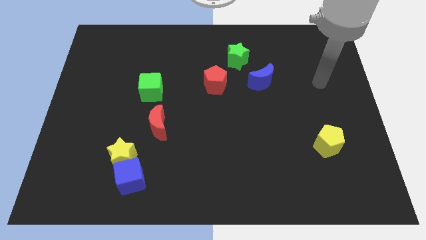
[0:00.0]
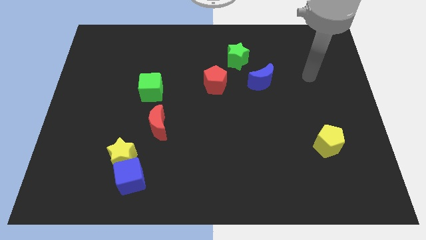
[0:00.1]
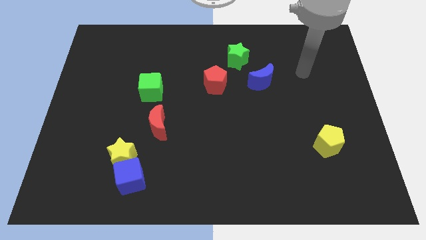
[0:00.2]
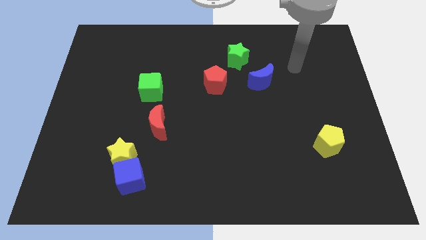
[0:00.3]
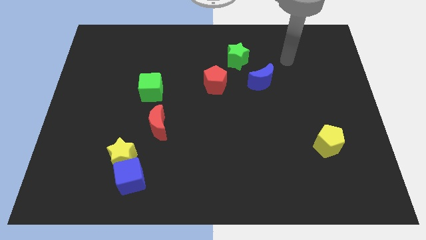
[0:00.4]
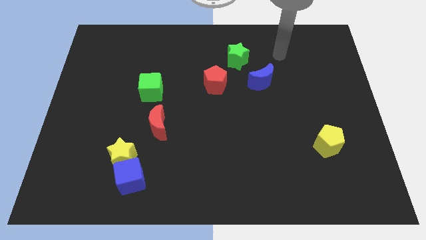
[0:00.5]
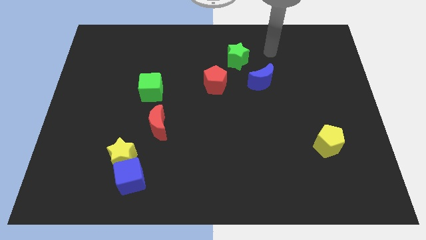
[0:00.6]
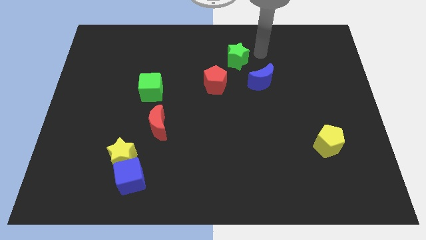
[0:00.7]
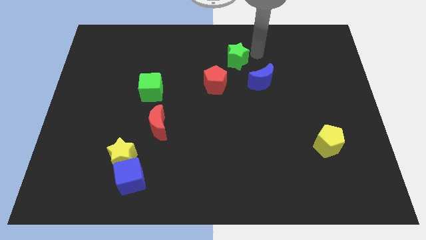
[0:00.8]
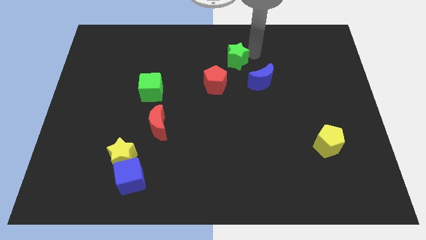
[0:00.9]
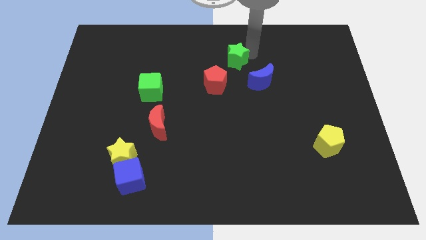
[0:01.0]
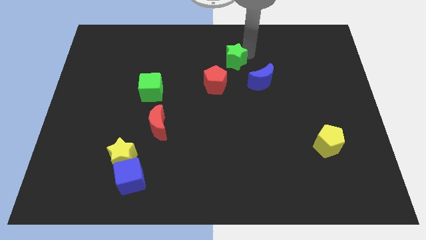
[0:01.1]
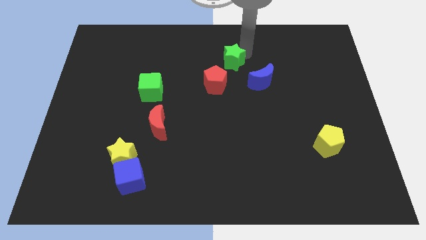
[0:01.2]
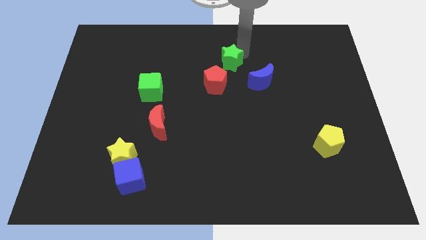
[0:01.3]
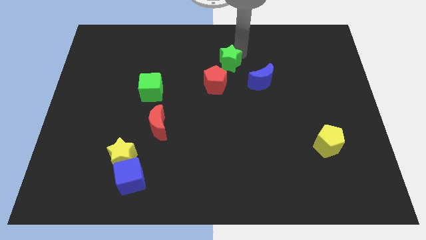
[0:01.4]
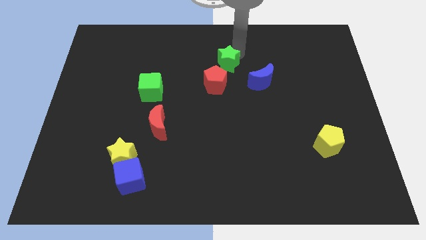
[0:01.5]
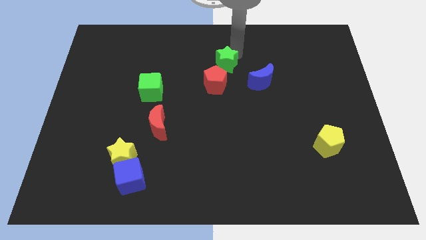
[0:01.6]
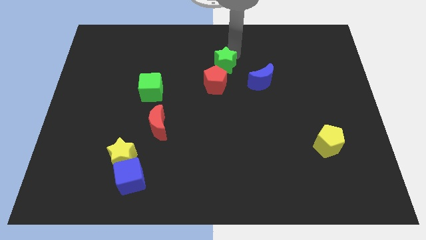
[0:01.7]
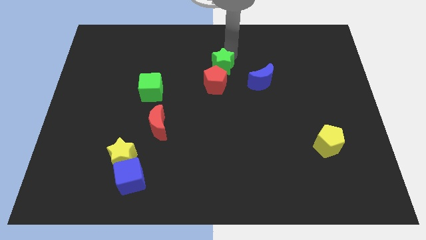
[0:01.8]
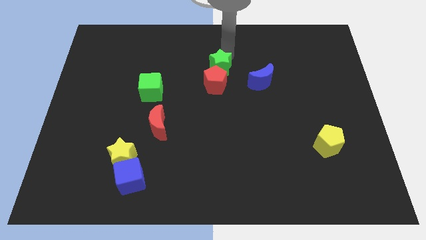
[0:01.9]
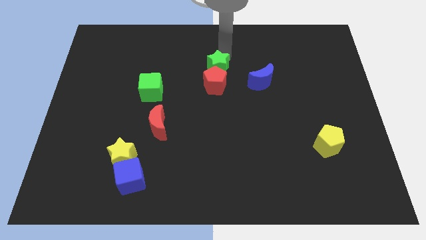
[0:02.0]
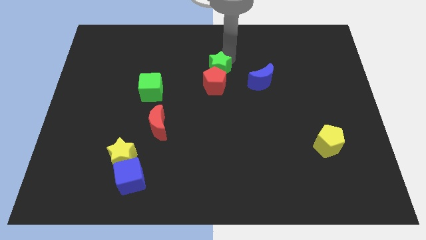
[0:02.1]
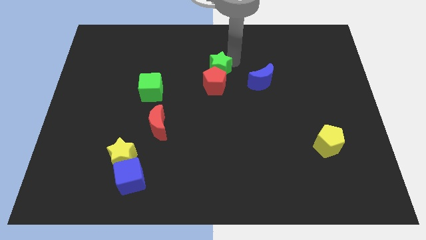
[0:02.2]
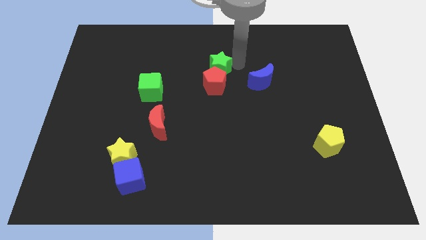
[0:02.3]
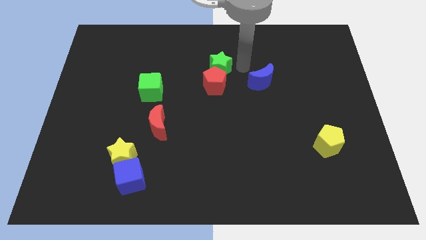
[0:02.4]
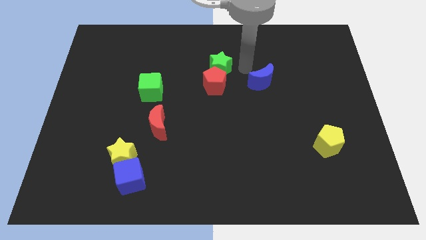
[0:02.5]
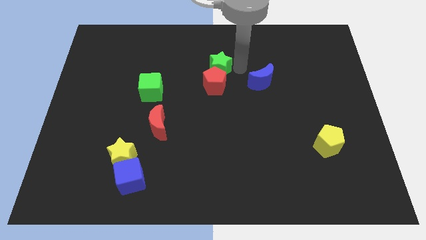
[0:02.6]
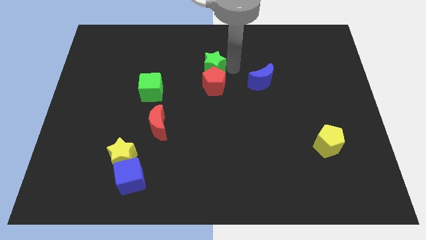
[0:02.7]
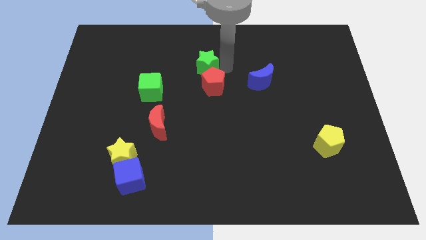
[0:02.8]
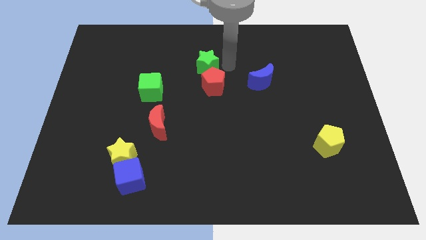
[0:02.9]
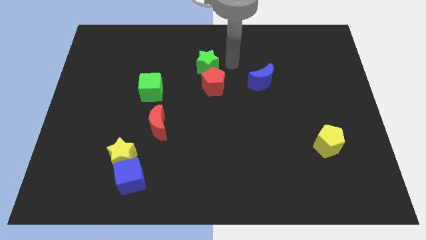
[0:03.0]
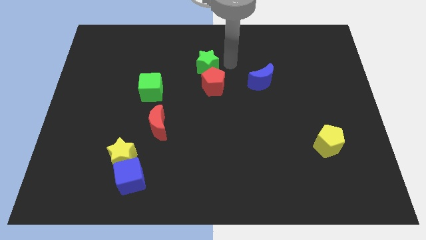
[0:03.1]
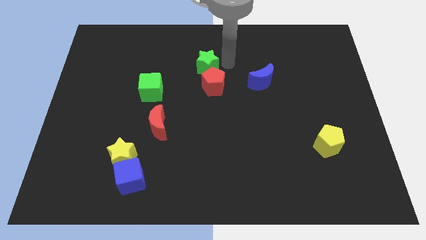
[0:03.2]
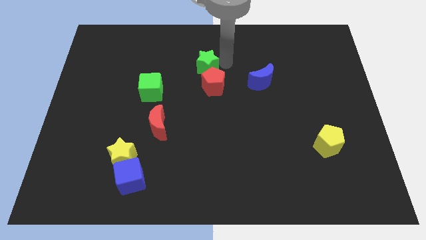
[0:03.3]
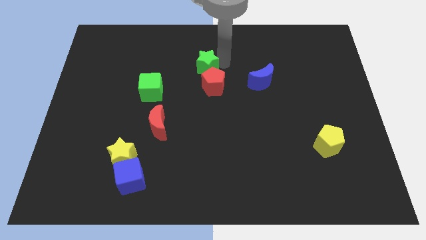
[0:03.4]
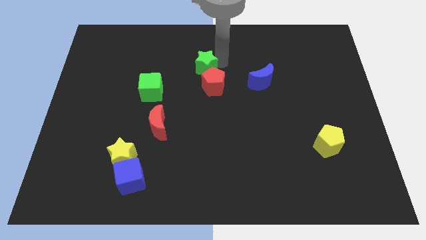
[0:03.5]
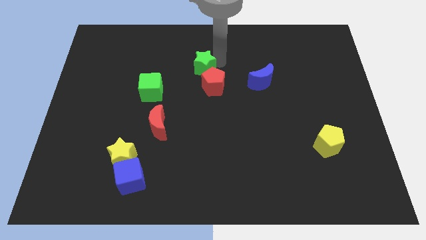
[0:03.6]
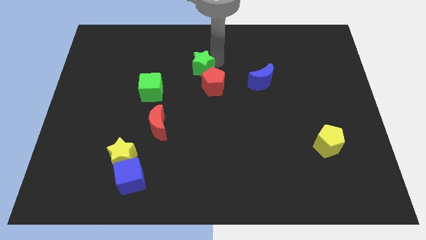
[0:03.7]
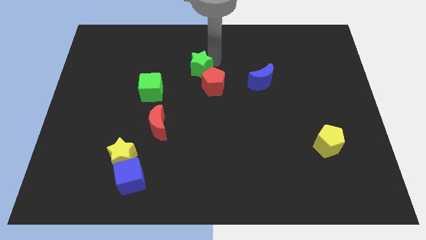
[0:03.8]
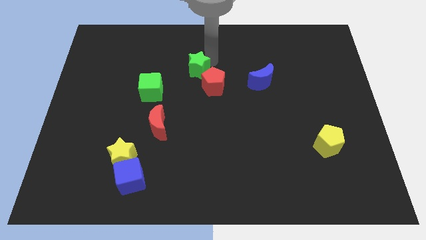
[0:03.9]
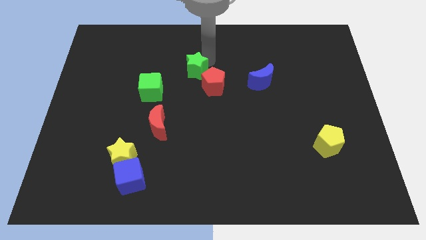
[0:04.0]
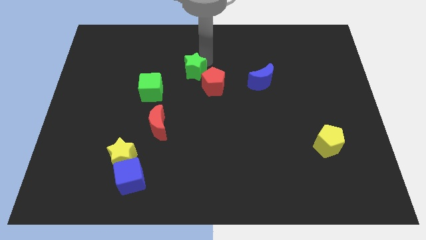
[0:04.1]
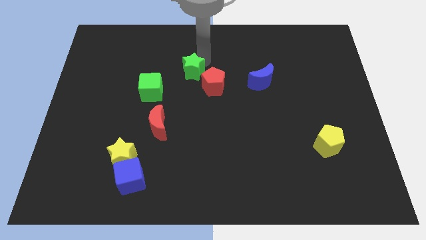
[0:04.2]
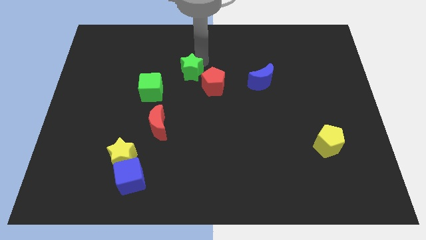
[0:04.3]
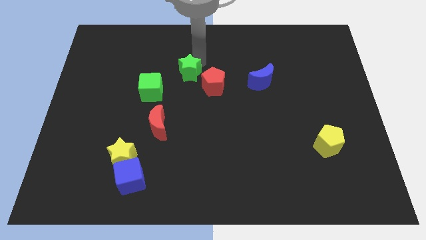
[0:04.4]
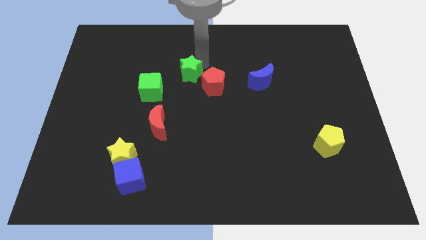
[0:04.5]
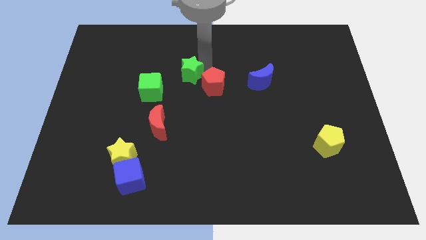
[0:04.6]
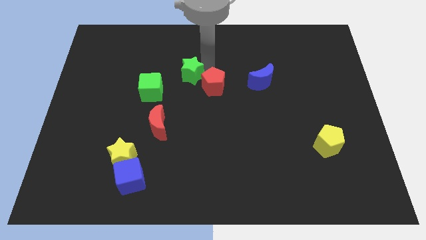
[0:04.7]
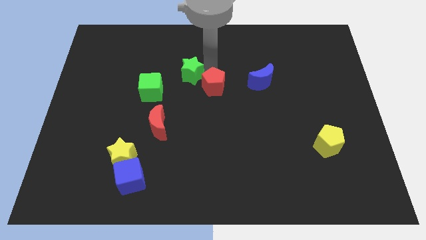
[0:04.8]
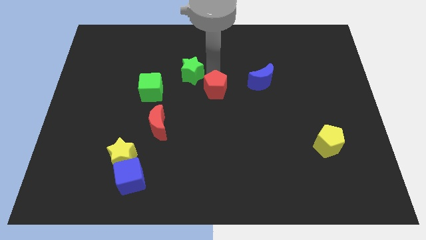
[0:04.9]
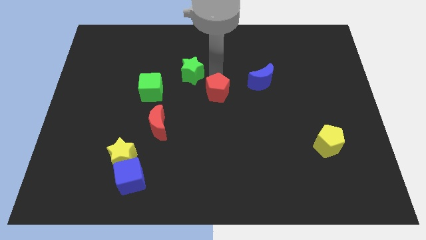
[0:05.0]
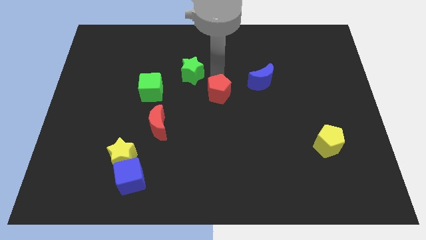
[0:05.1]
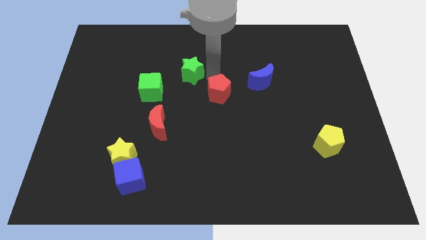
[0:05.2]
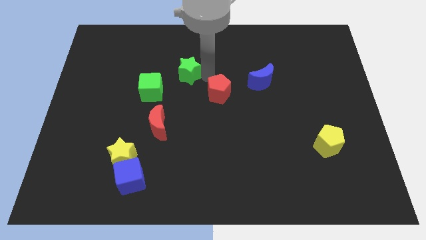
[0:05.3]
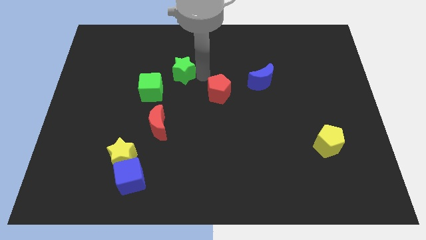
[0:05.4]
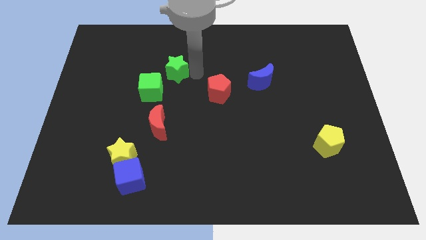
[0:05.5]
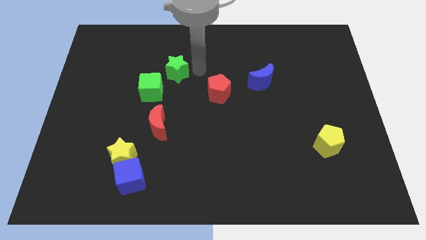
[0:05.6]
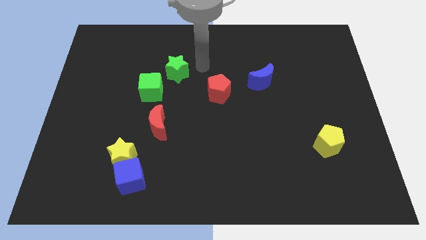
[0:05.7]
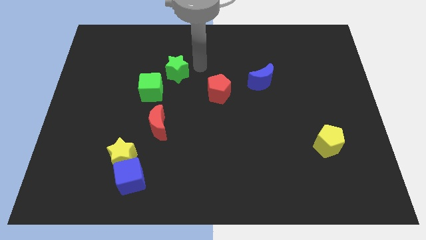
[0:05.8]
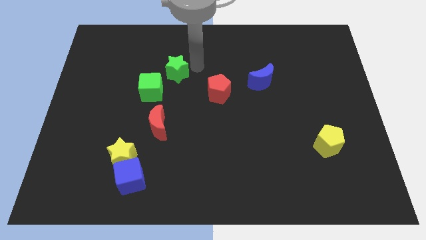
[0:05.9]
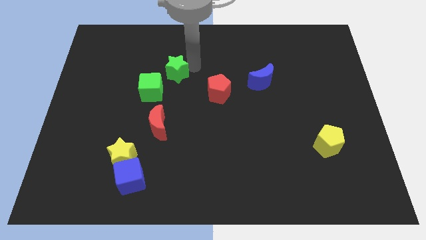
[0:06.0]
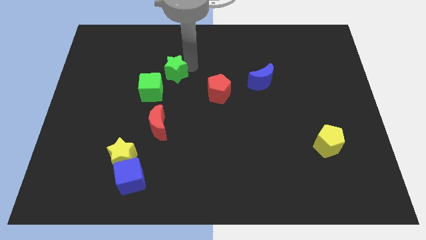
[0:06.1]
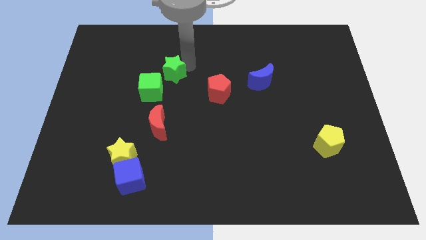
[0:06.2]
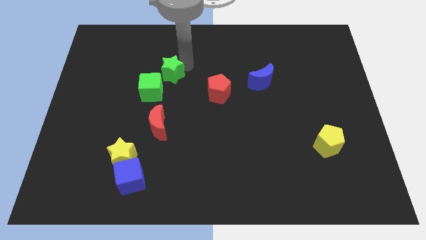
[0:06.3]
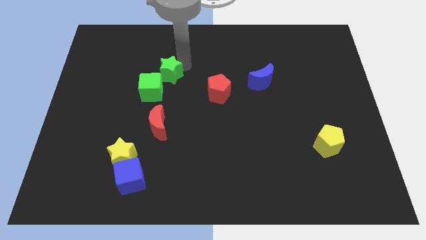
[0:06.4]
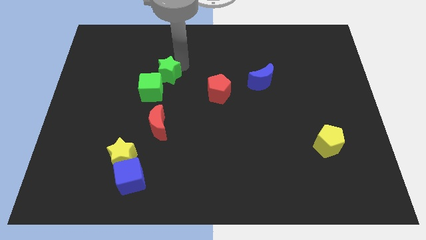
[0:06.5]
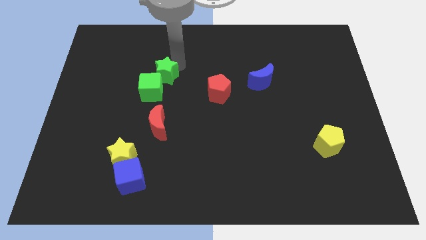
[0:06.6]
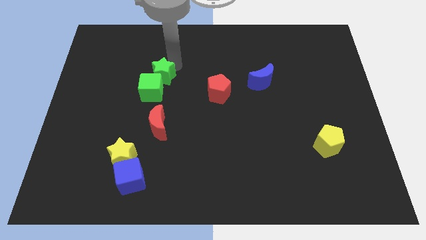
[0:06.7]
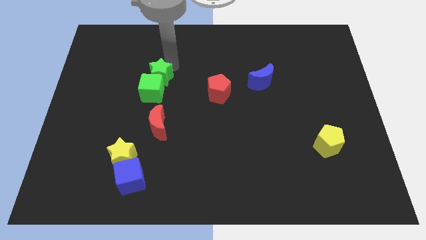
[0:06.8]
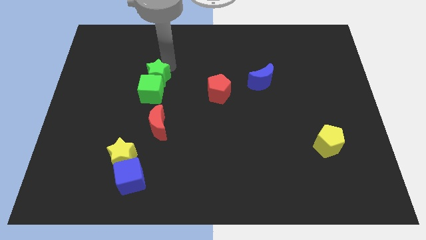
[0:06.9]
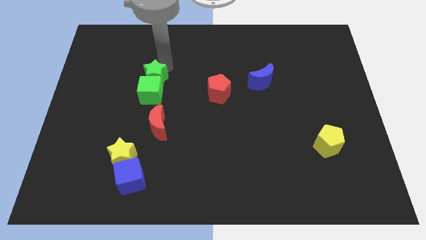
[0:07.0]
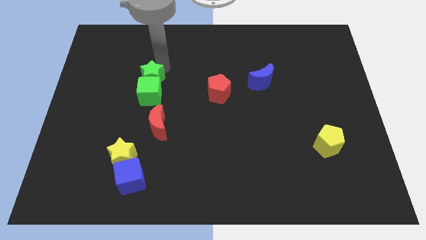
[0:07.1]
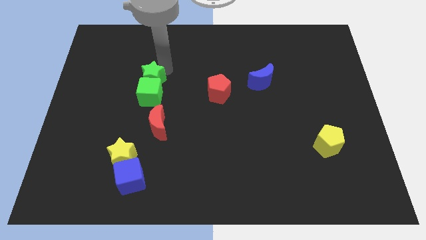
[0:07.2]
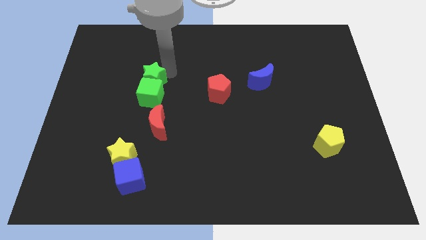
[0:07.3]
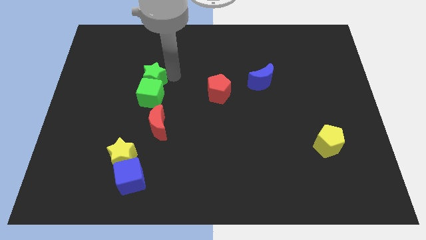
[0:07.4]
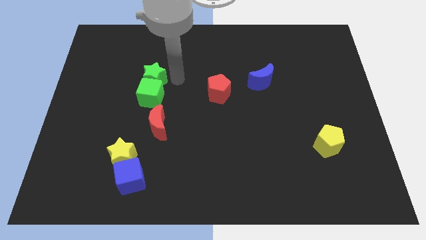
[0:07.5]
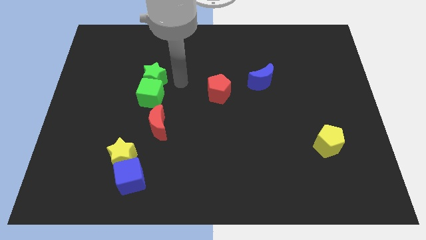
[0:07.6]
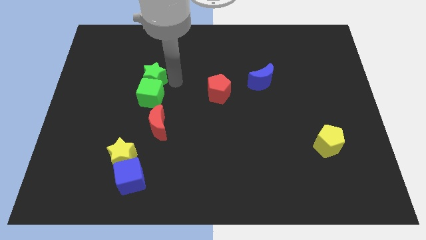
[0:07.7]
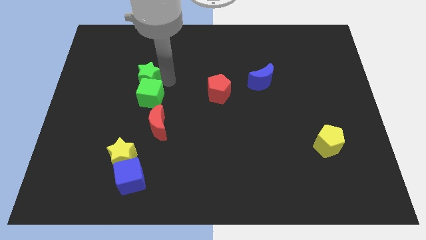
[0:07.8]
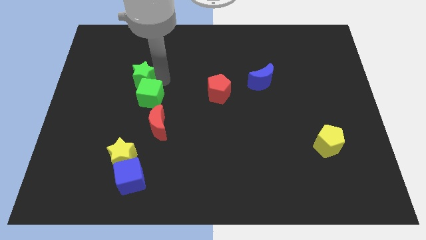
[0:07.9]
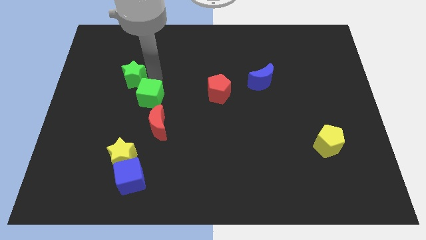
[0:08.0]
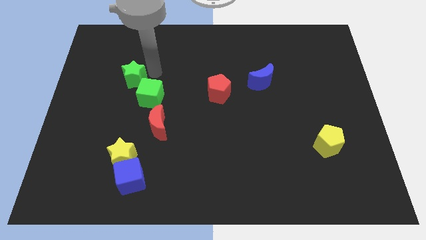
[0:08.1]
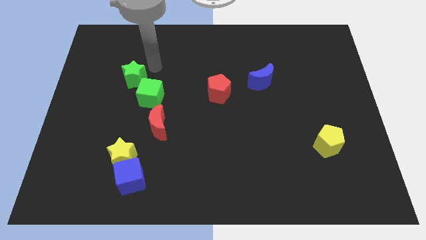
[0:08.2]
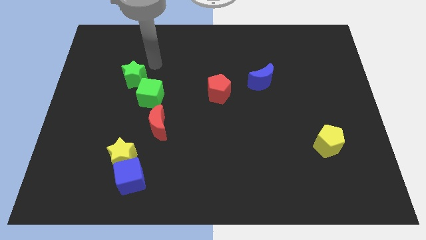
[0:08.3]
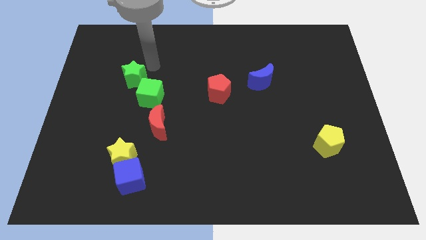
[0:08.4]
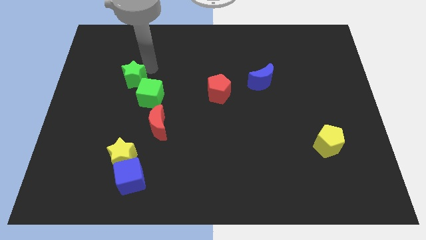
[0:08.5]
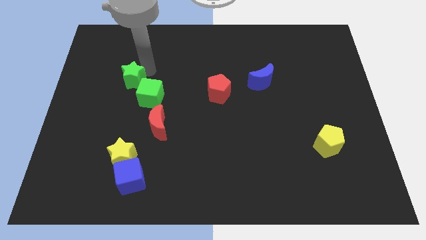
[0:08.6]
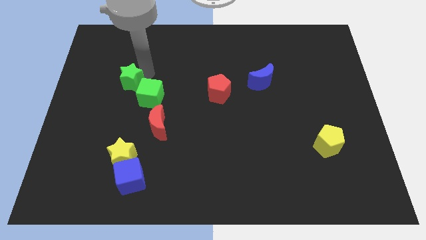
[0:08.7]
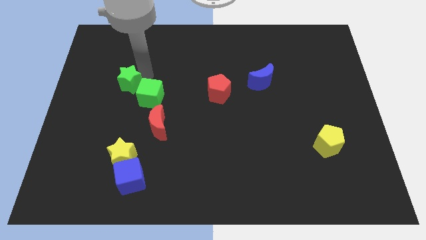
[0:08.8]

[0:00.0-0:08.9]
push the green star left of the green cube
